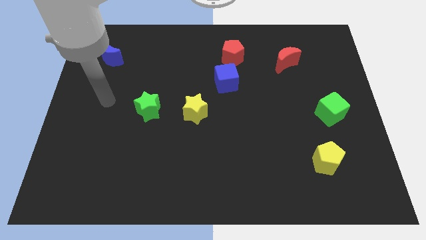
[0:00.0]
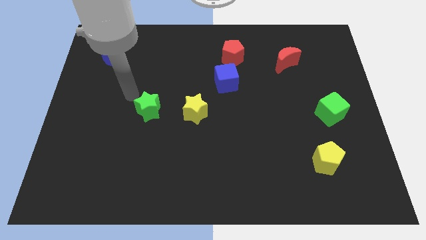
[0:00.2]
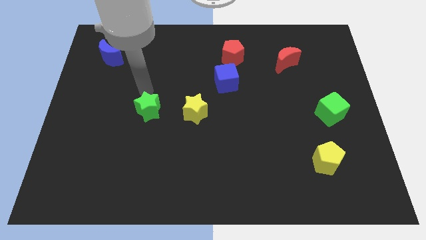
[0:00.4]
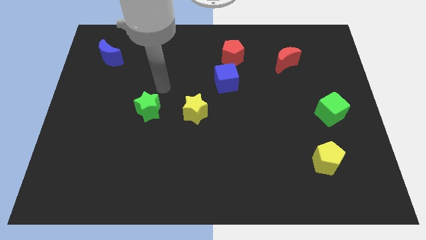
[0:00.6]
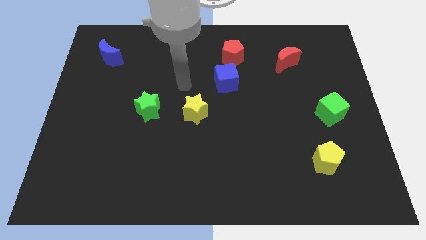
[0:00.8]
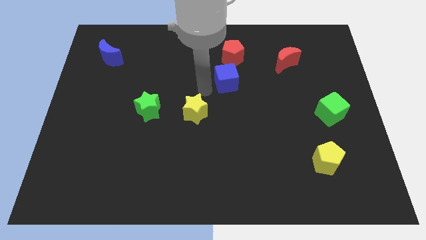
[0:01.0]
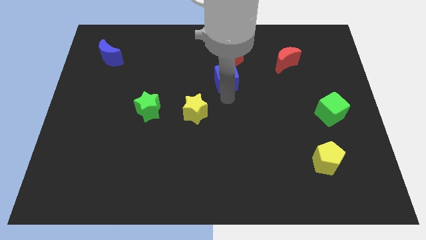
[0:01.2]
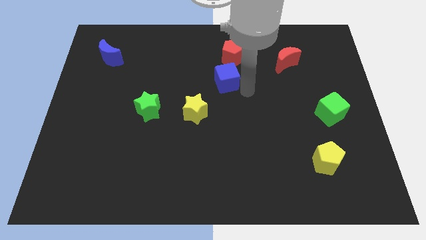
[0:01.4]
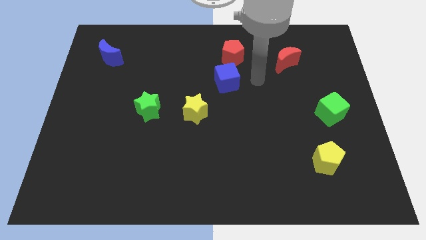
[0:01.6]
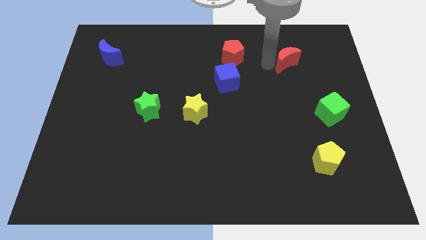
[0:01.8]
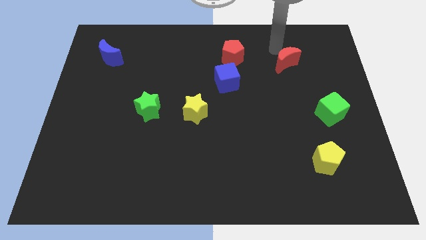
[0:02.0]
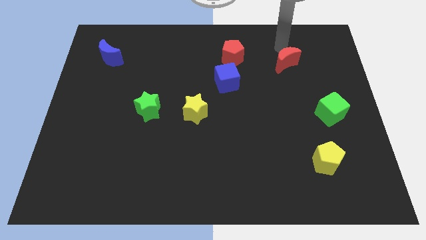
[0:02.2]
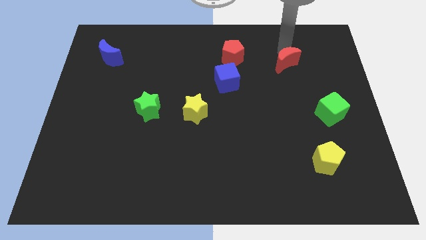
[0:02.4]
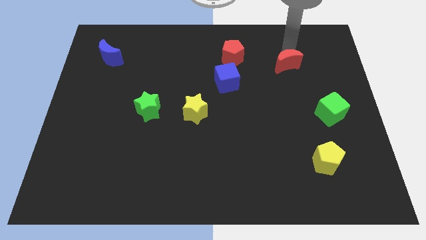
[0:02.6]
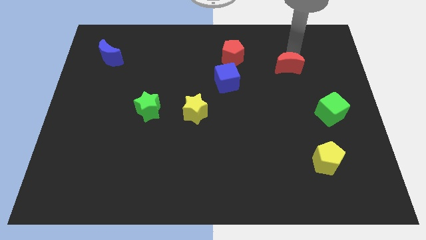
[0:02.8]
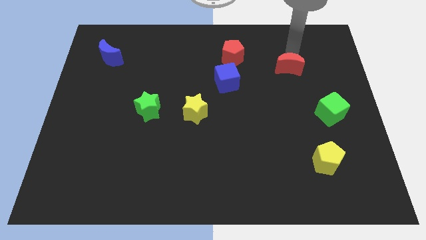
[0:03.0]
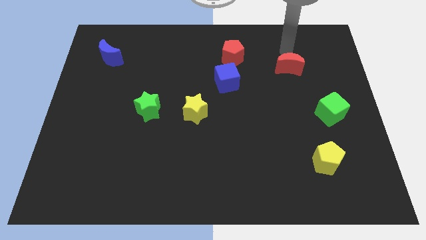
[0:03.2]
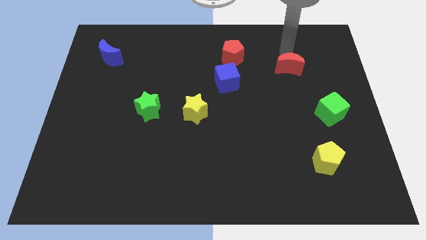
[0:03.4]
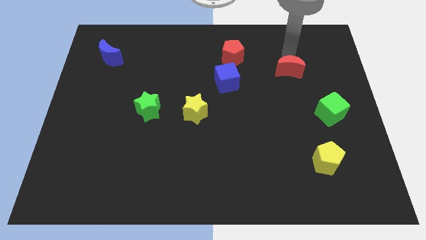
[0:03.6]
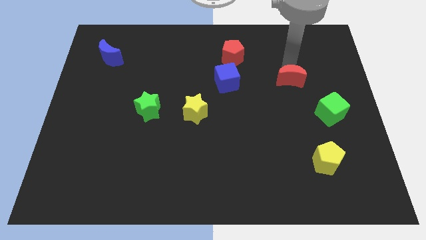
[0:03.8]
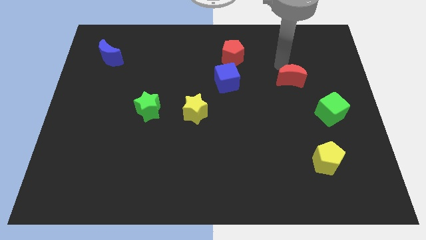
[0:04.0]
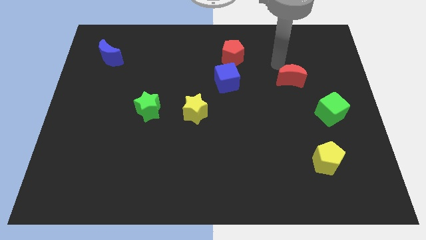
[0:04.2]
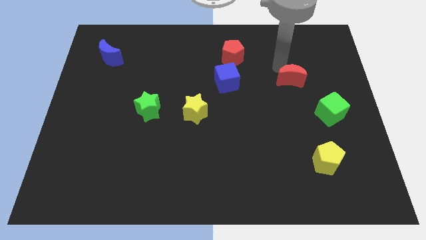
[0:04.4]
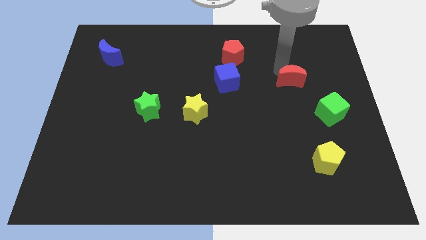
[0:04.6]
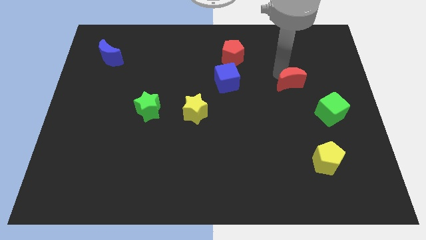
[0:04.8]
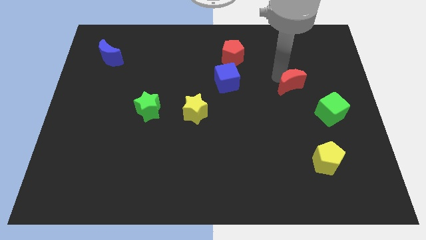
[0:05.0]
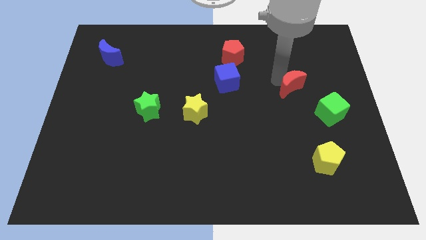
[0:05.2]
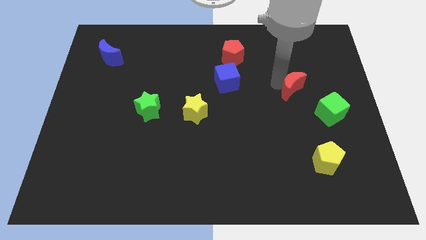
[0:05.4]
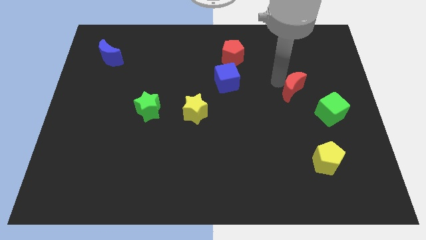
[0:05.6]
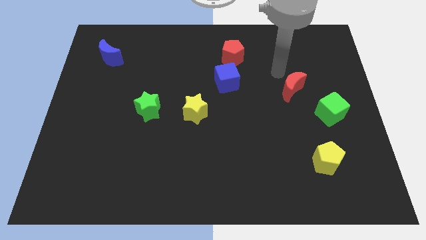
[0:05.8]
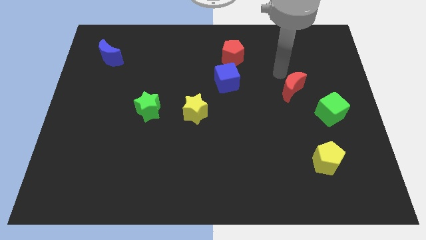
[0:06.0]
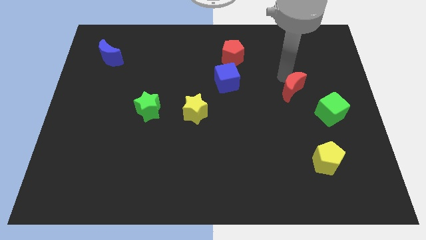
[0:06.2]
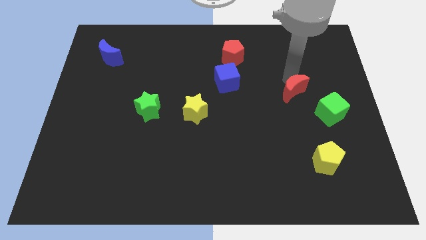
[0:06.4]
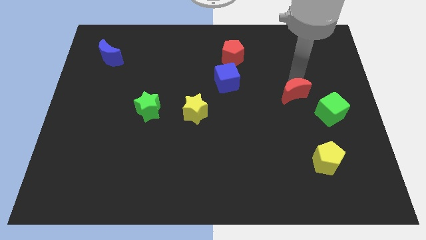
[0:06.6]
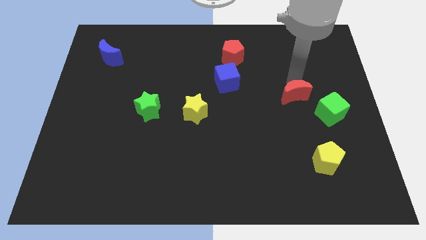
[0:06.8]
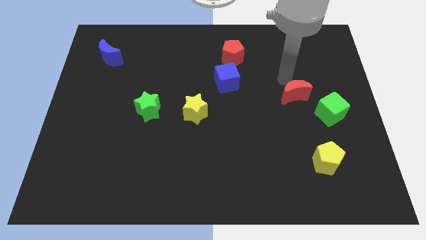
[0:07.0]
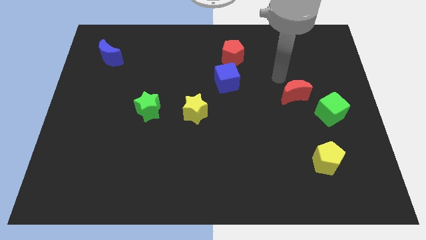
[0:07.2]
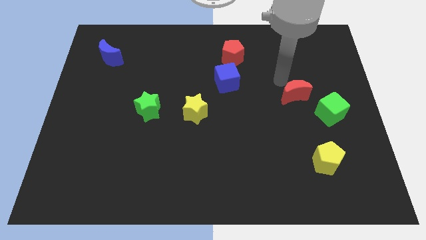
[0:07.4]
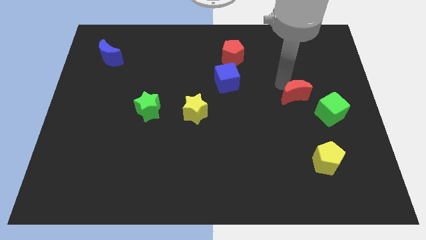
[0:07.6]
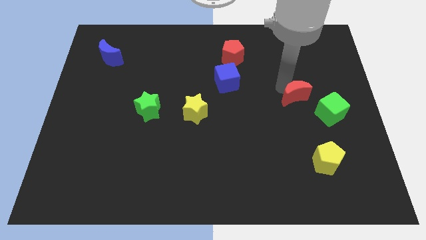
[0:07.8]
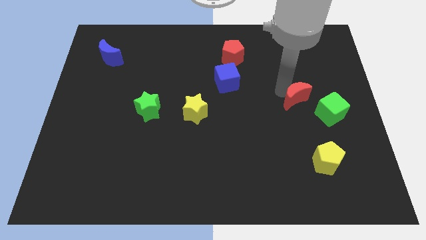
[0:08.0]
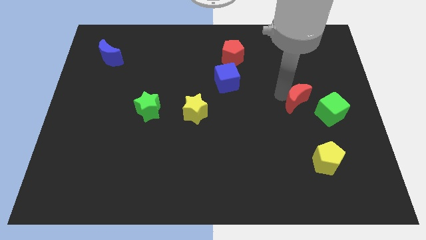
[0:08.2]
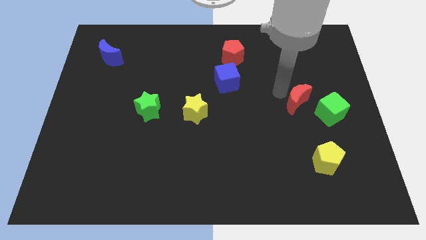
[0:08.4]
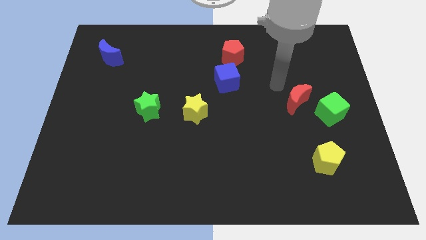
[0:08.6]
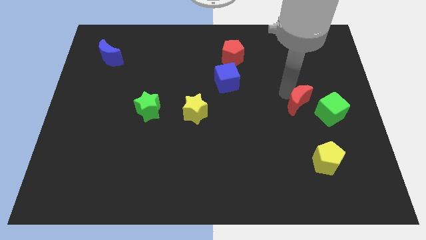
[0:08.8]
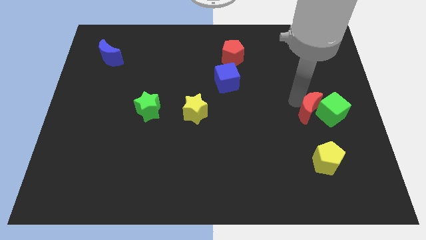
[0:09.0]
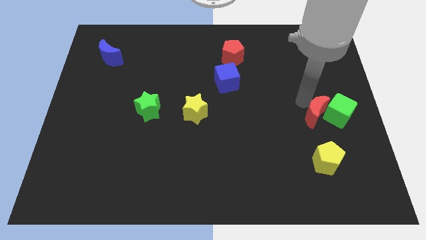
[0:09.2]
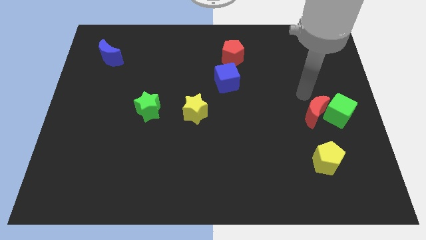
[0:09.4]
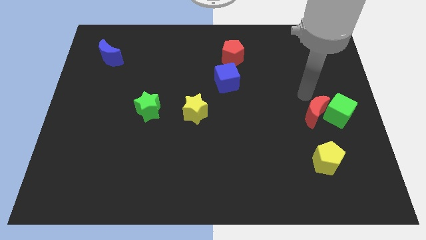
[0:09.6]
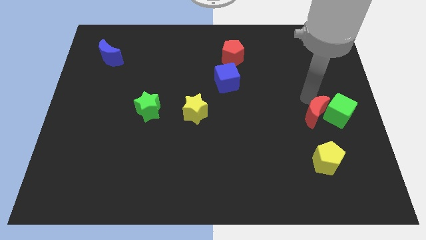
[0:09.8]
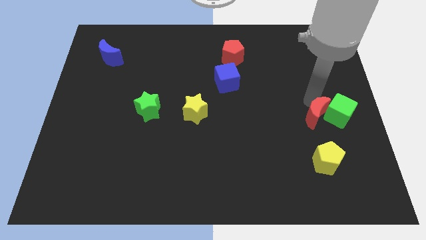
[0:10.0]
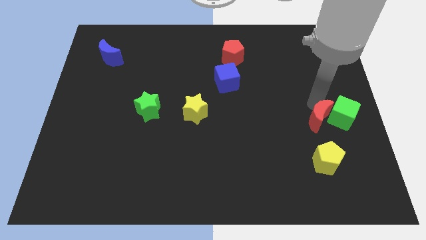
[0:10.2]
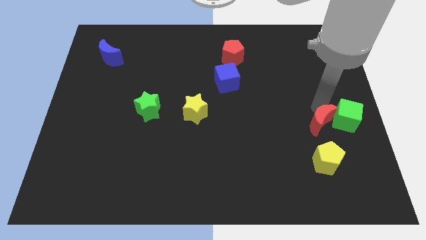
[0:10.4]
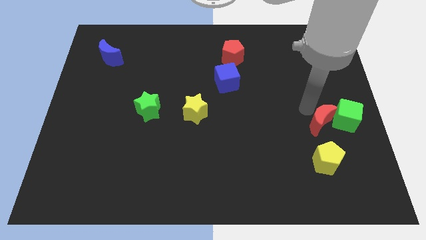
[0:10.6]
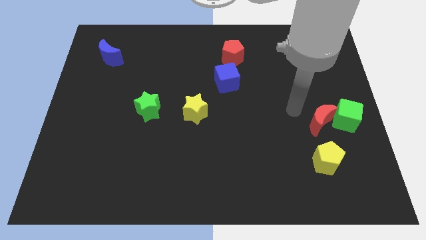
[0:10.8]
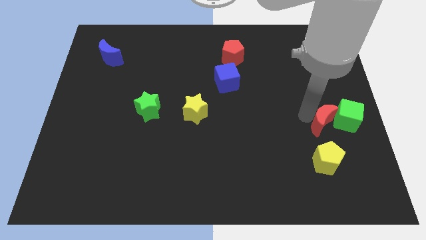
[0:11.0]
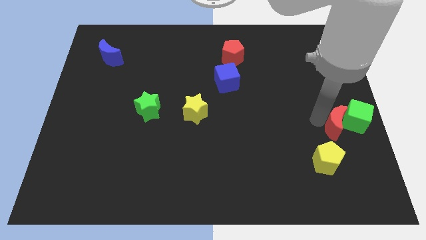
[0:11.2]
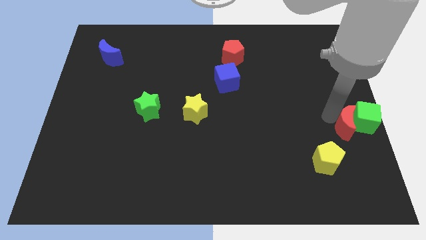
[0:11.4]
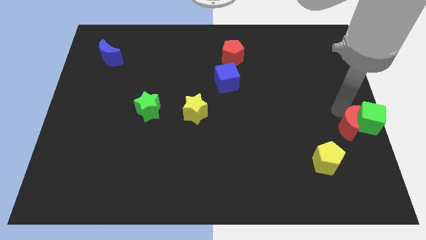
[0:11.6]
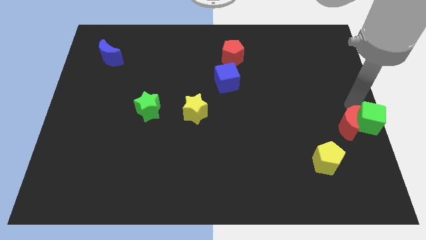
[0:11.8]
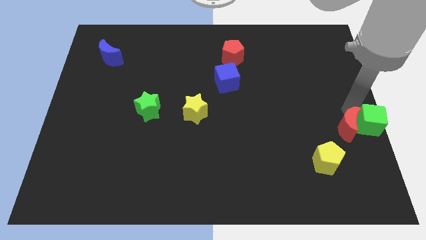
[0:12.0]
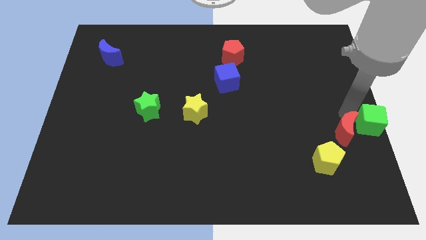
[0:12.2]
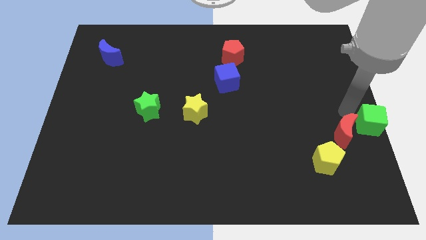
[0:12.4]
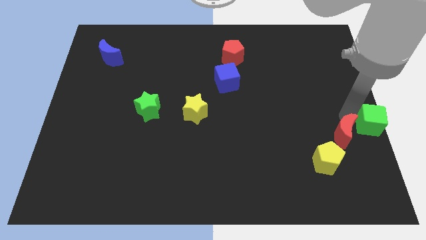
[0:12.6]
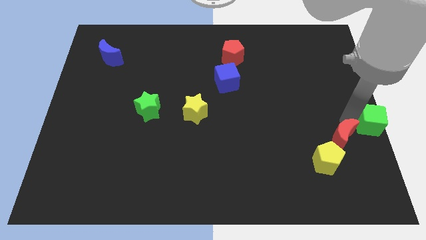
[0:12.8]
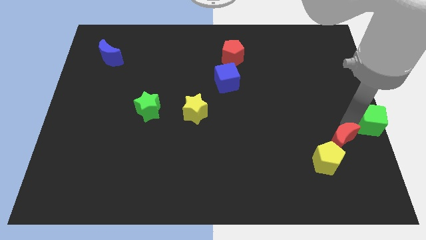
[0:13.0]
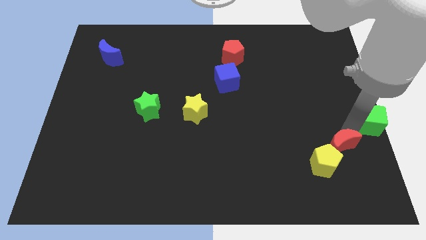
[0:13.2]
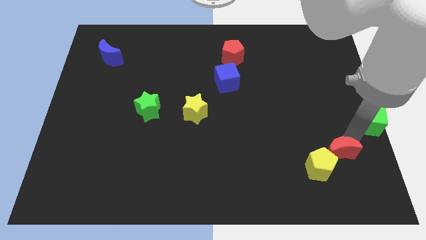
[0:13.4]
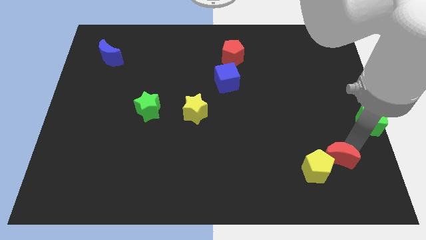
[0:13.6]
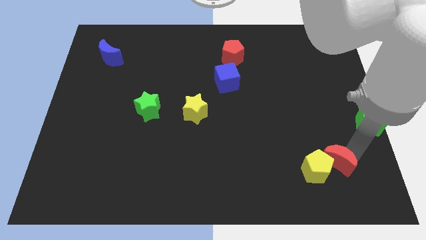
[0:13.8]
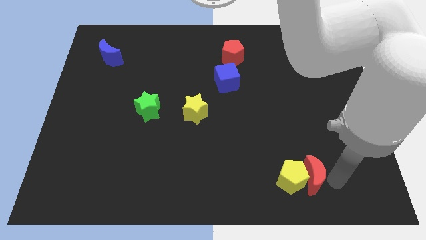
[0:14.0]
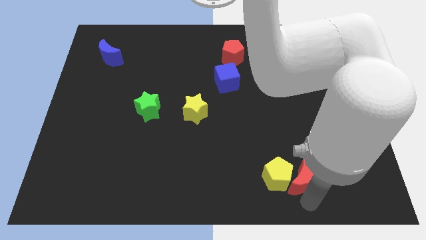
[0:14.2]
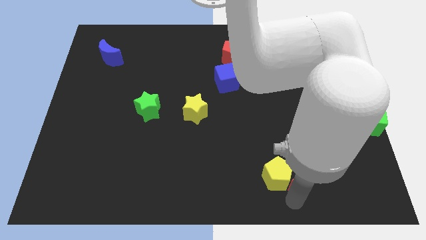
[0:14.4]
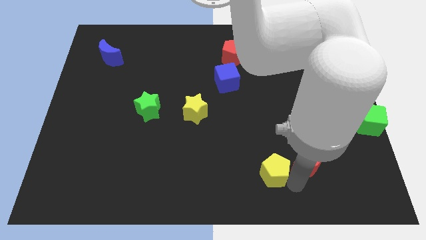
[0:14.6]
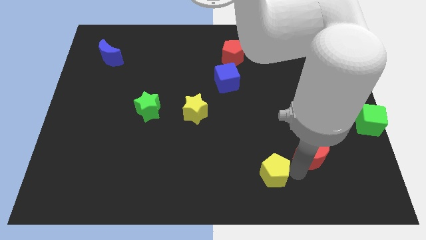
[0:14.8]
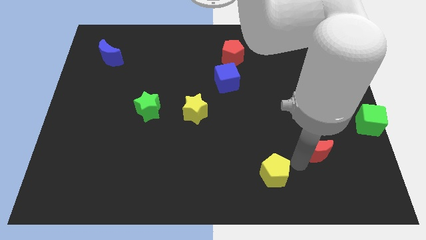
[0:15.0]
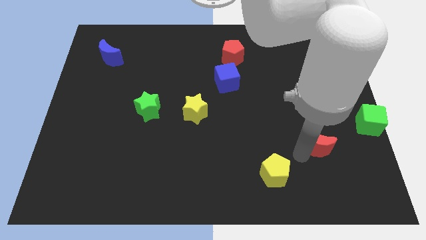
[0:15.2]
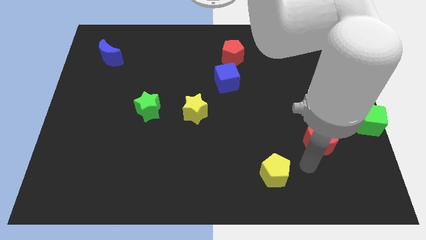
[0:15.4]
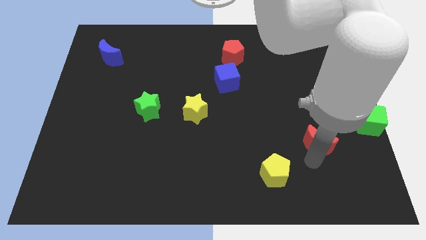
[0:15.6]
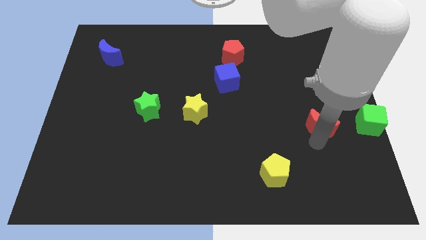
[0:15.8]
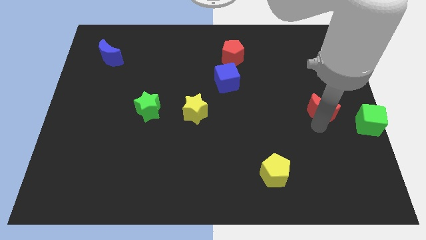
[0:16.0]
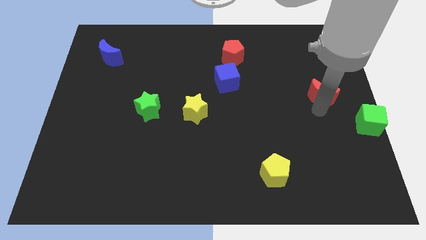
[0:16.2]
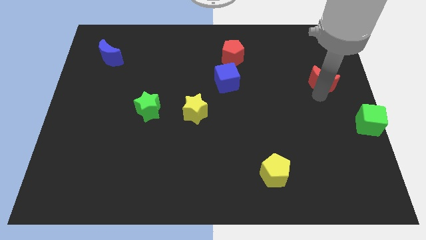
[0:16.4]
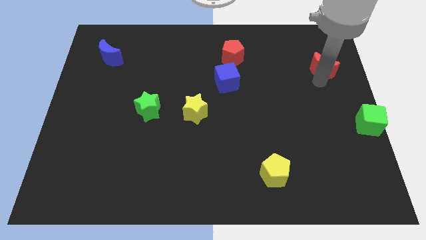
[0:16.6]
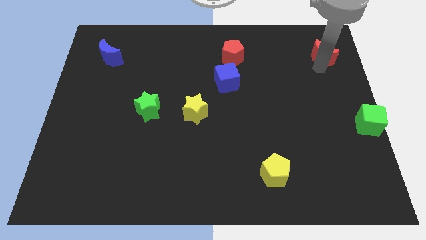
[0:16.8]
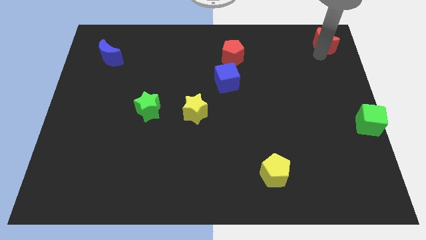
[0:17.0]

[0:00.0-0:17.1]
move the red moon to the top right corner
